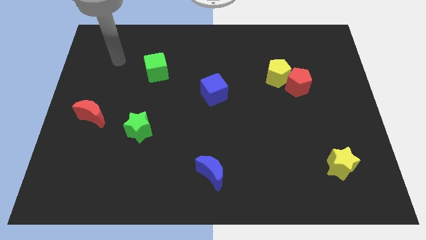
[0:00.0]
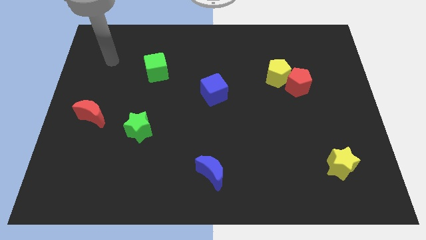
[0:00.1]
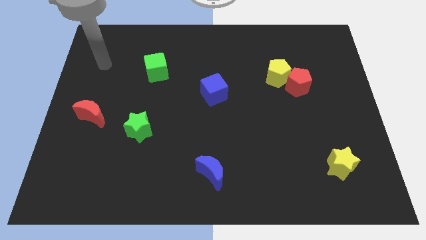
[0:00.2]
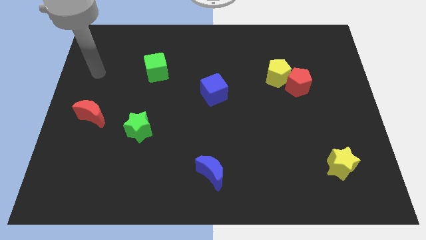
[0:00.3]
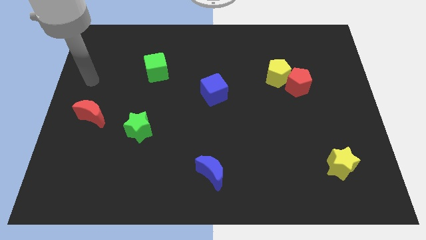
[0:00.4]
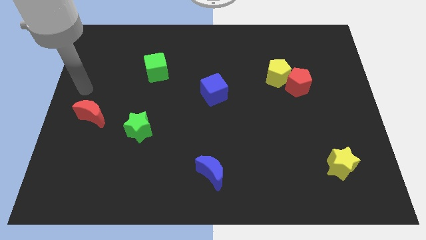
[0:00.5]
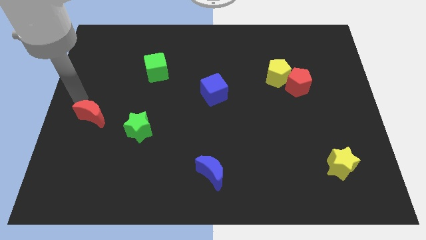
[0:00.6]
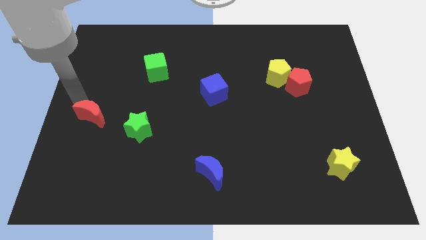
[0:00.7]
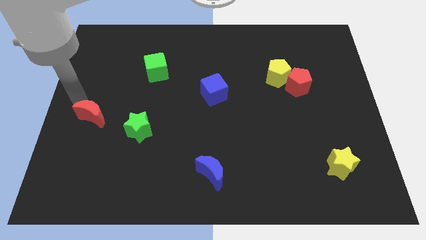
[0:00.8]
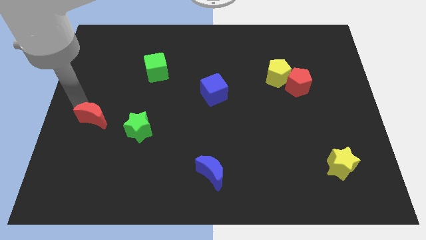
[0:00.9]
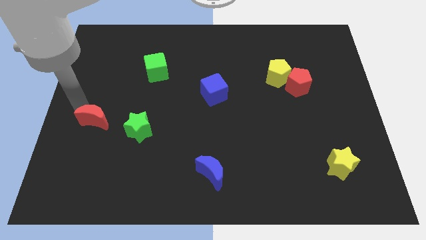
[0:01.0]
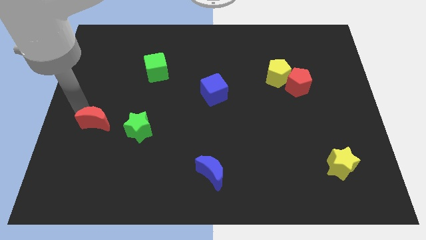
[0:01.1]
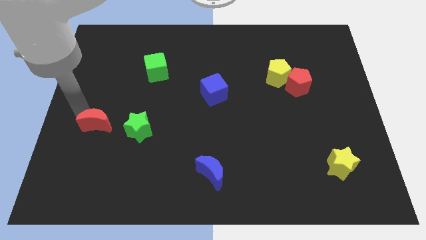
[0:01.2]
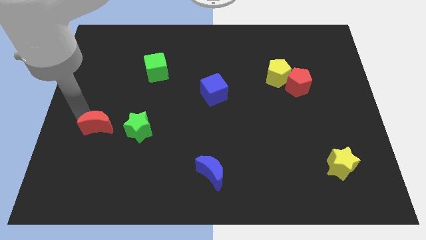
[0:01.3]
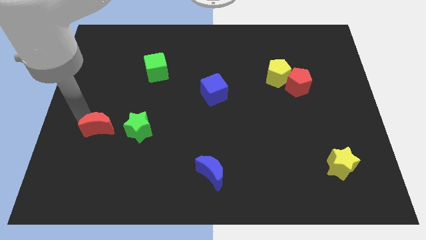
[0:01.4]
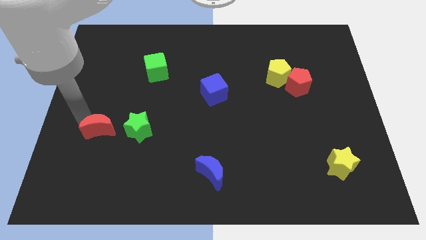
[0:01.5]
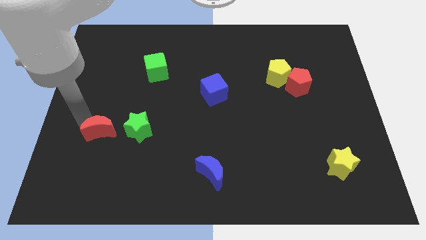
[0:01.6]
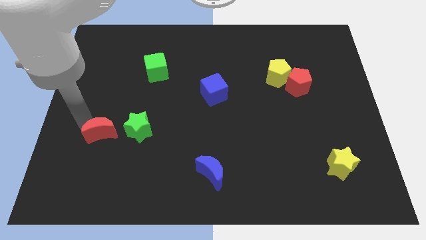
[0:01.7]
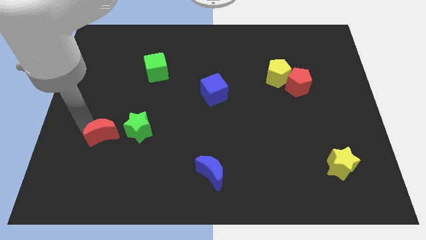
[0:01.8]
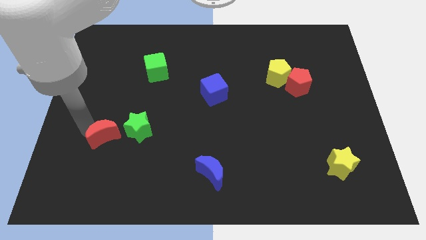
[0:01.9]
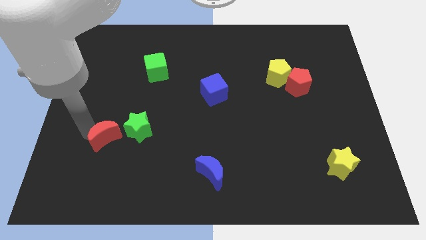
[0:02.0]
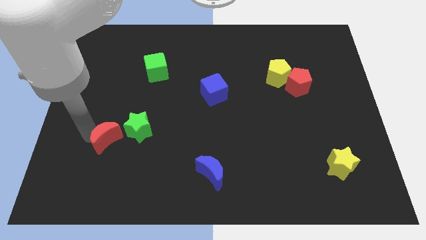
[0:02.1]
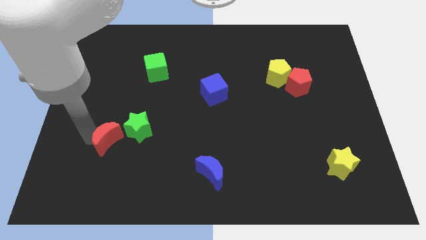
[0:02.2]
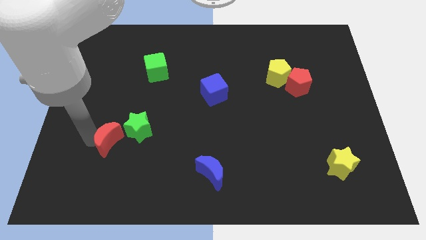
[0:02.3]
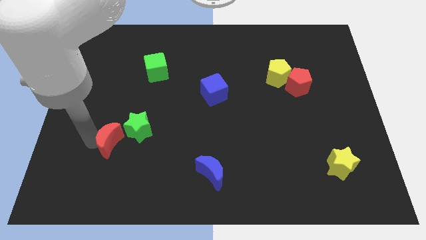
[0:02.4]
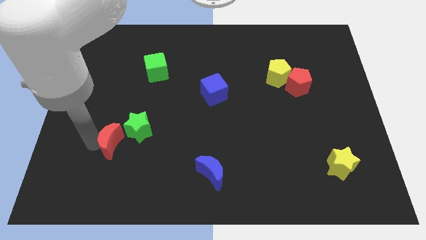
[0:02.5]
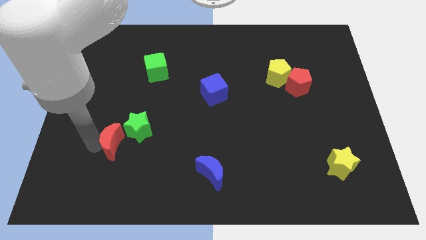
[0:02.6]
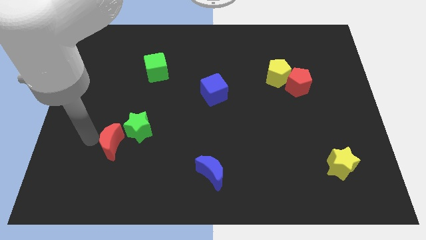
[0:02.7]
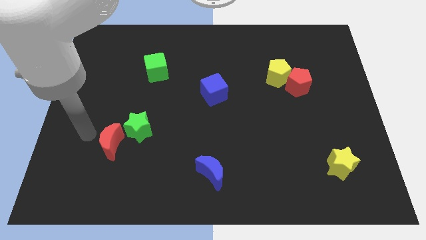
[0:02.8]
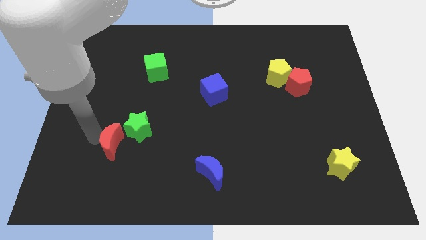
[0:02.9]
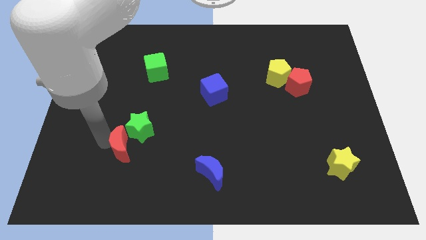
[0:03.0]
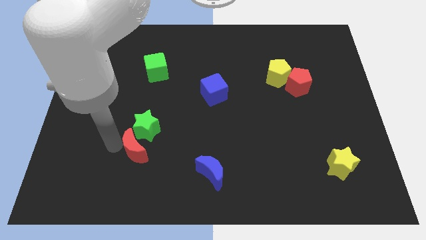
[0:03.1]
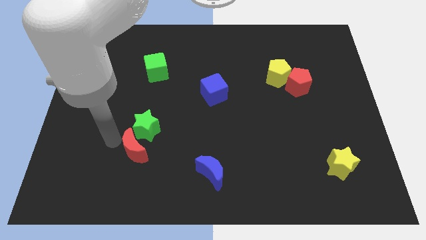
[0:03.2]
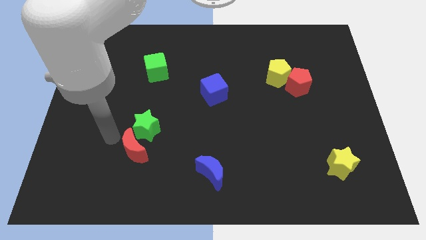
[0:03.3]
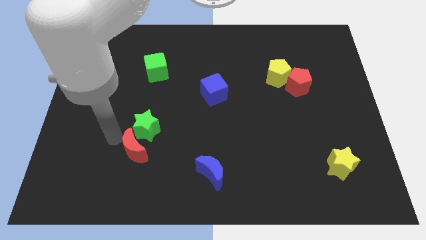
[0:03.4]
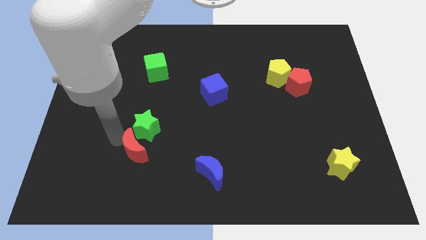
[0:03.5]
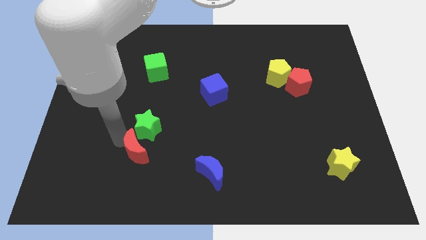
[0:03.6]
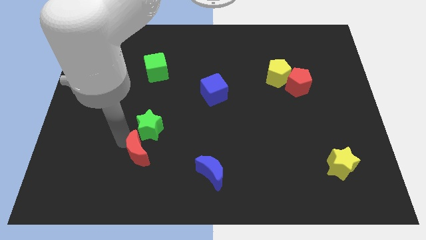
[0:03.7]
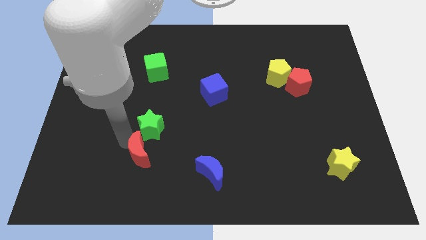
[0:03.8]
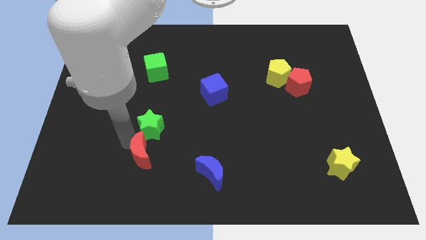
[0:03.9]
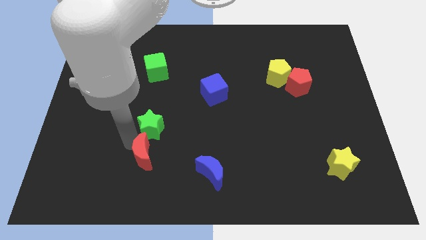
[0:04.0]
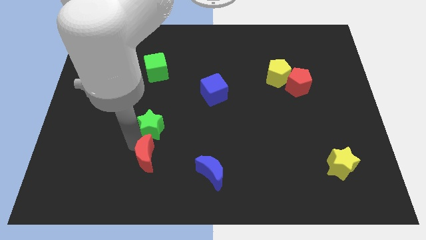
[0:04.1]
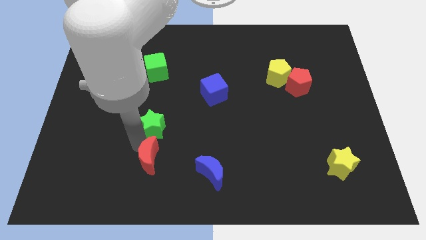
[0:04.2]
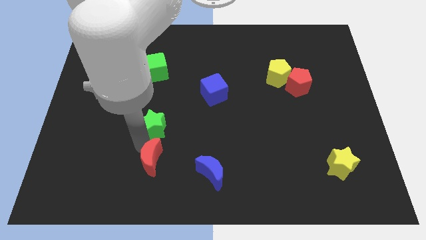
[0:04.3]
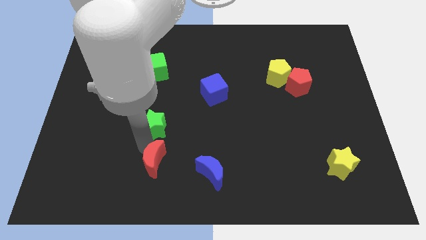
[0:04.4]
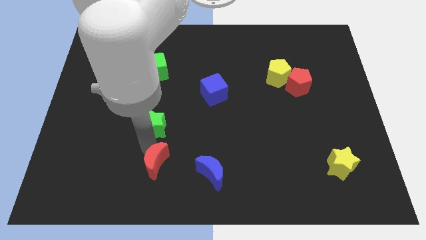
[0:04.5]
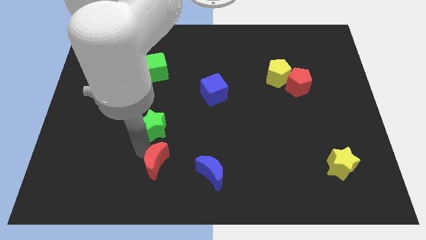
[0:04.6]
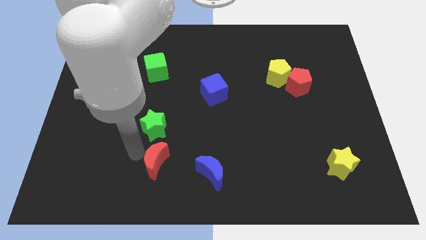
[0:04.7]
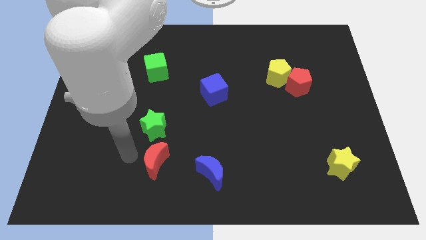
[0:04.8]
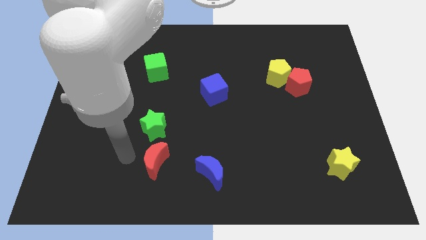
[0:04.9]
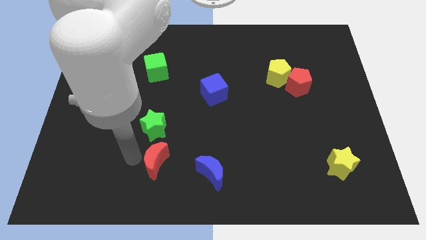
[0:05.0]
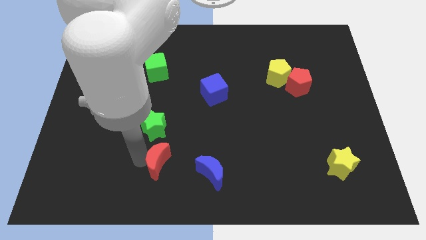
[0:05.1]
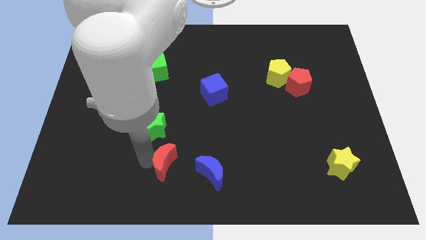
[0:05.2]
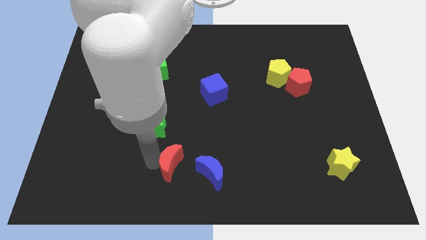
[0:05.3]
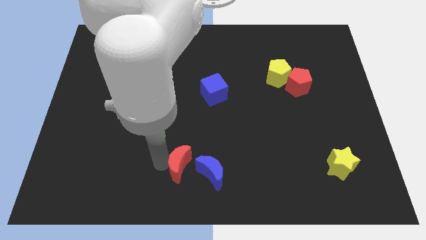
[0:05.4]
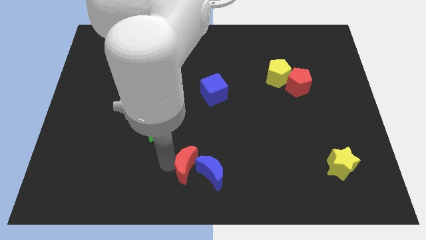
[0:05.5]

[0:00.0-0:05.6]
slide the red moon next to the blue moon

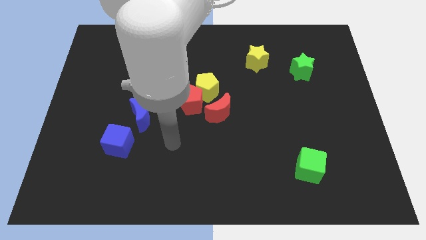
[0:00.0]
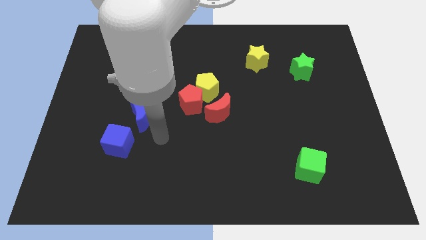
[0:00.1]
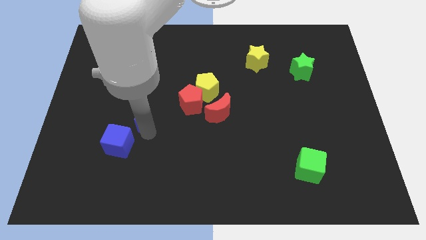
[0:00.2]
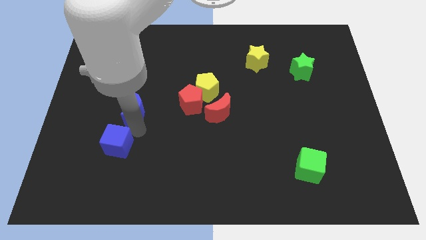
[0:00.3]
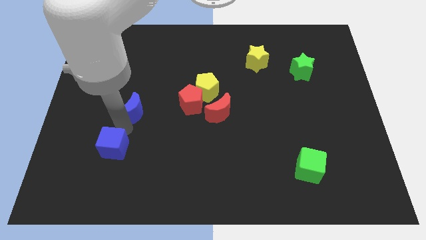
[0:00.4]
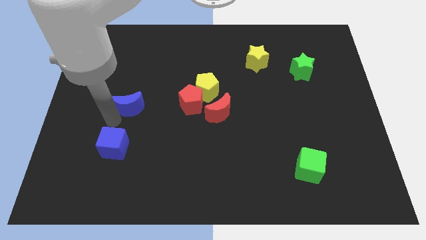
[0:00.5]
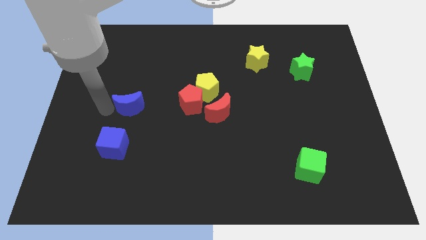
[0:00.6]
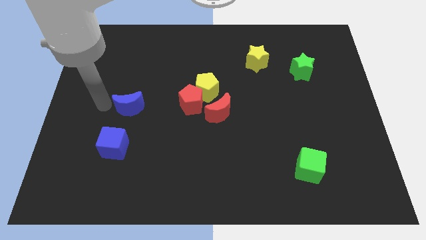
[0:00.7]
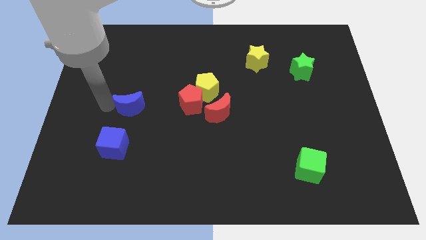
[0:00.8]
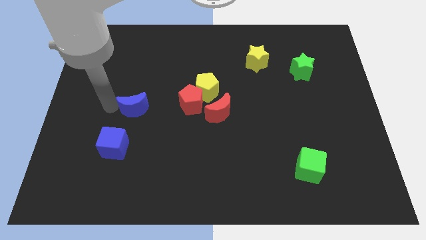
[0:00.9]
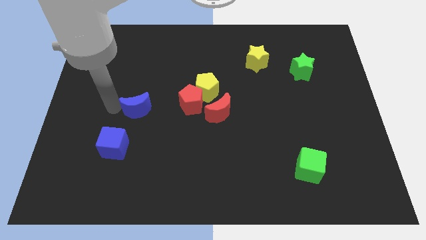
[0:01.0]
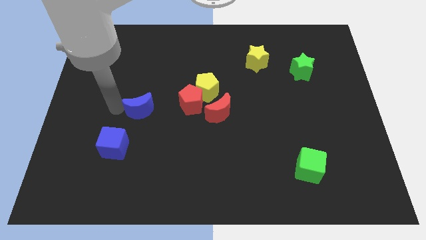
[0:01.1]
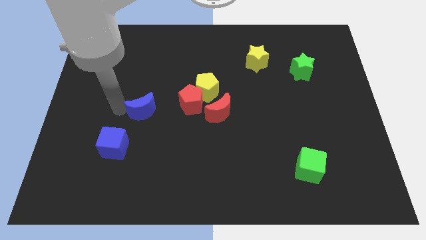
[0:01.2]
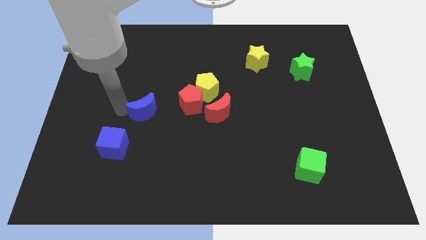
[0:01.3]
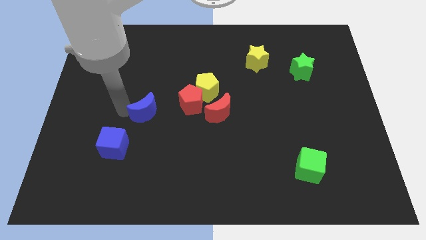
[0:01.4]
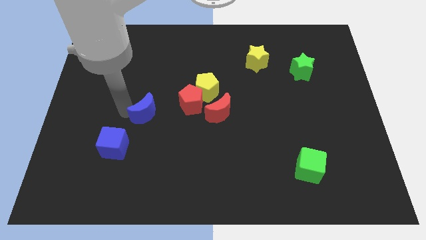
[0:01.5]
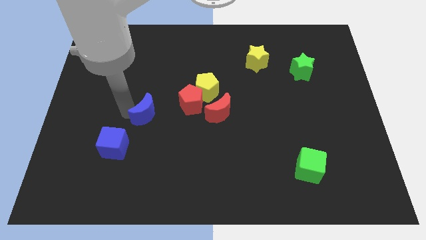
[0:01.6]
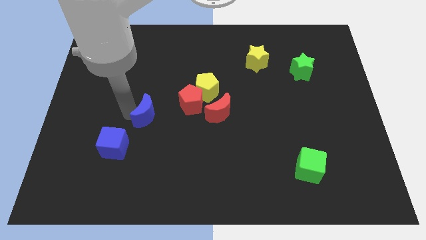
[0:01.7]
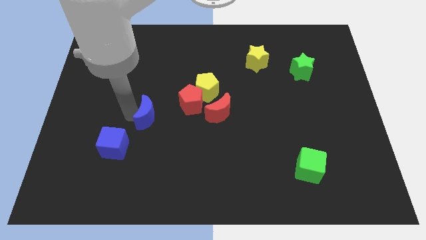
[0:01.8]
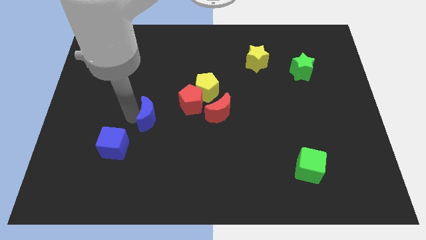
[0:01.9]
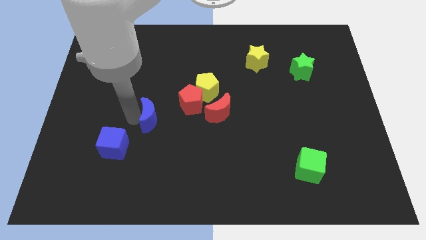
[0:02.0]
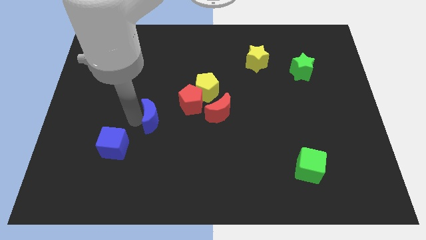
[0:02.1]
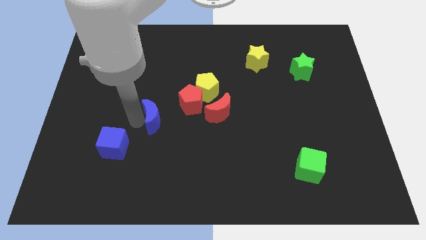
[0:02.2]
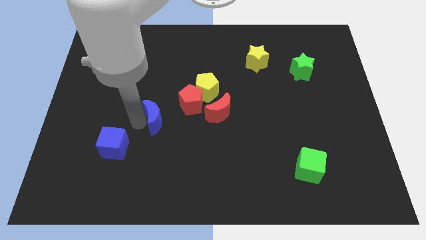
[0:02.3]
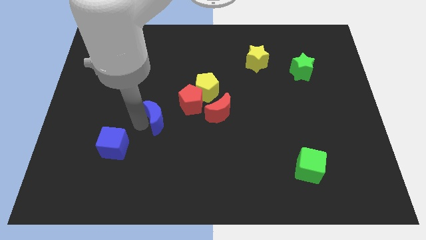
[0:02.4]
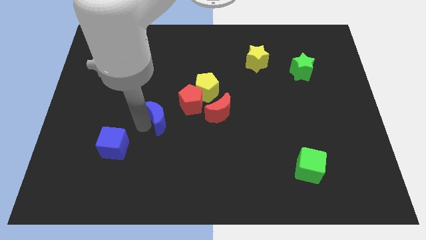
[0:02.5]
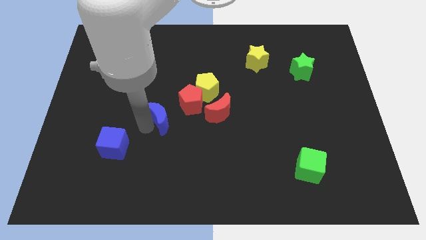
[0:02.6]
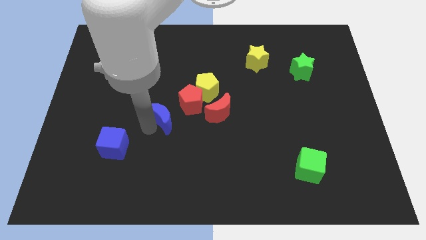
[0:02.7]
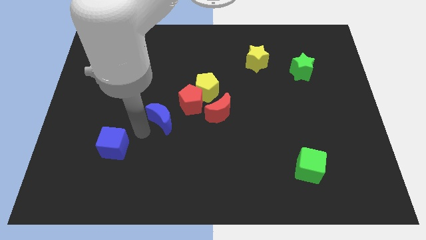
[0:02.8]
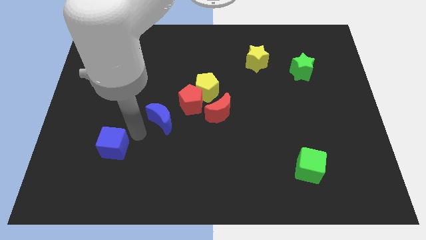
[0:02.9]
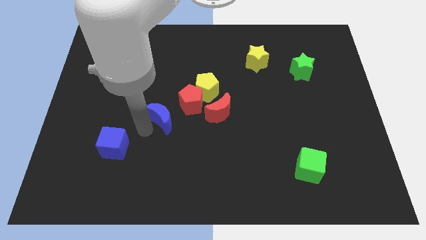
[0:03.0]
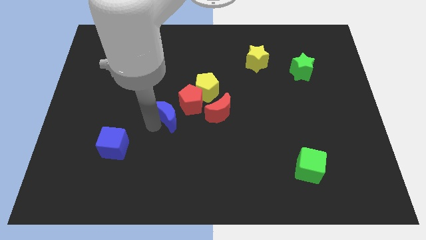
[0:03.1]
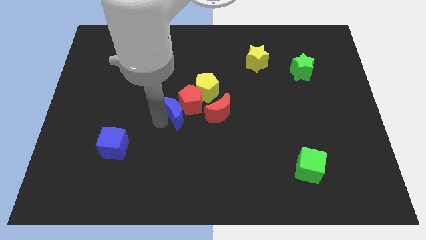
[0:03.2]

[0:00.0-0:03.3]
push the blue moon close to the red pentagon
